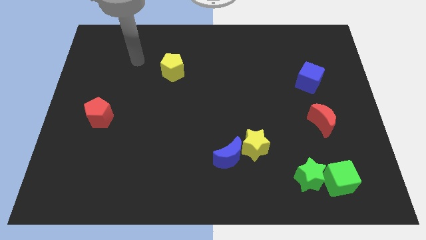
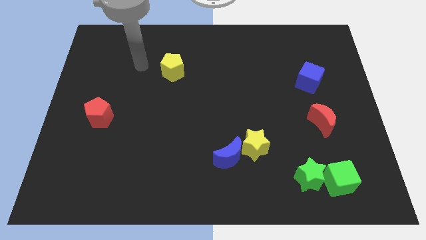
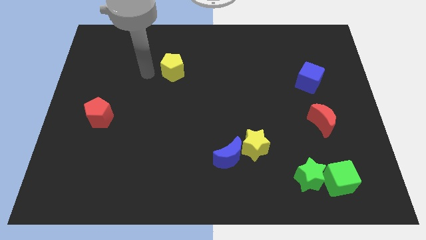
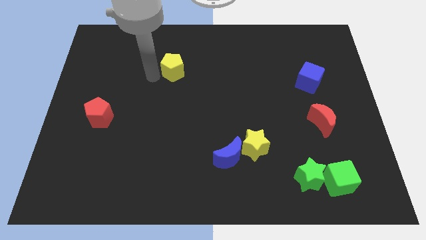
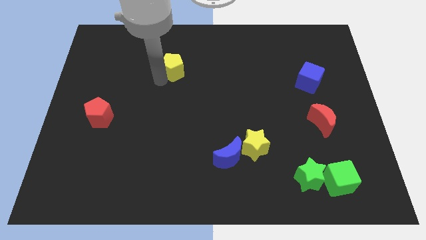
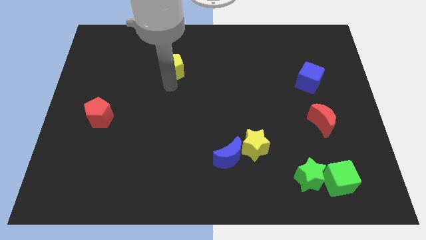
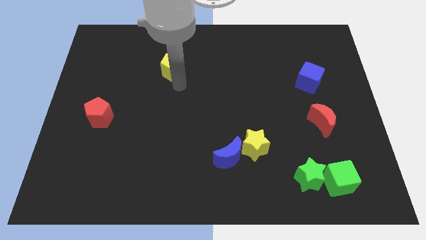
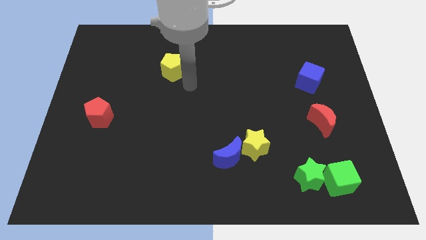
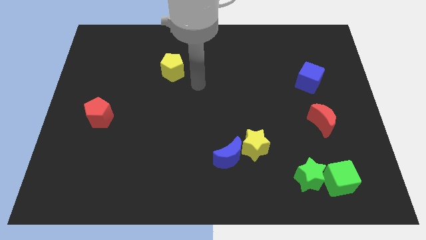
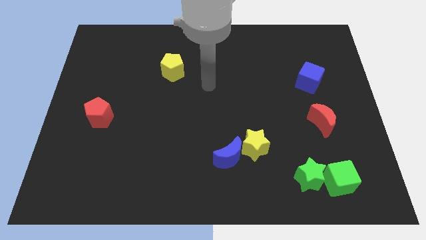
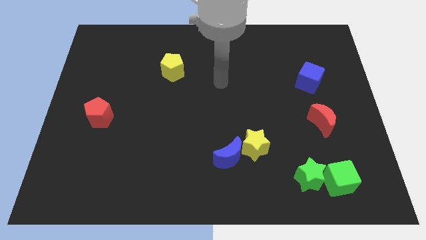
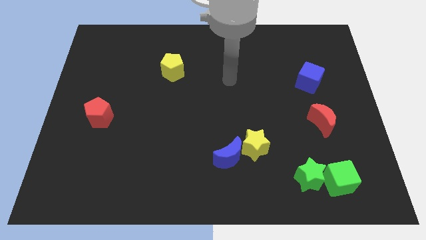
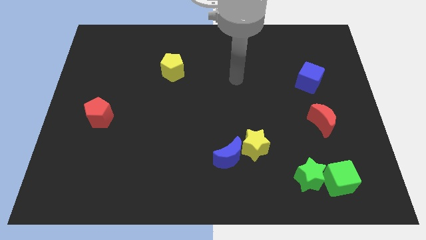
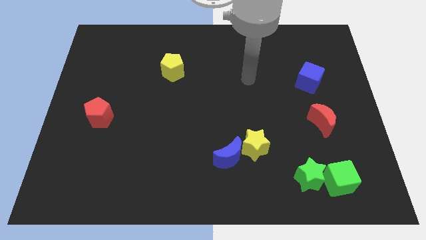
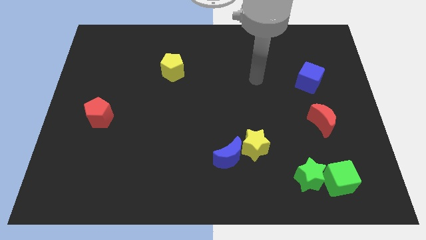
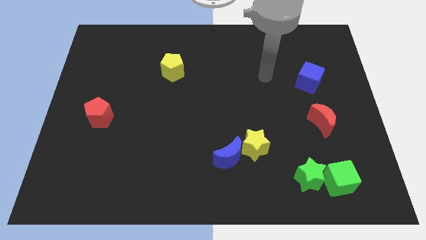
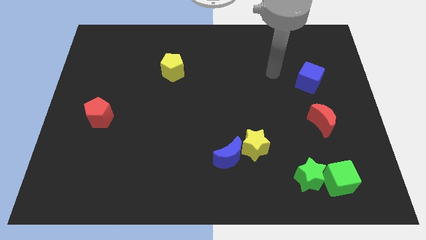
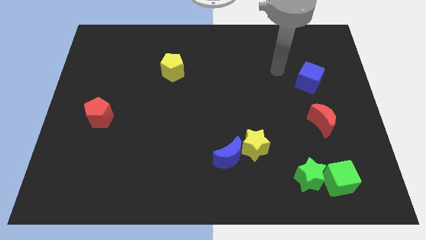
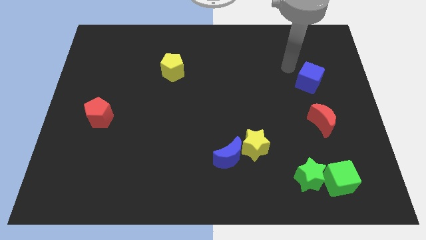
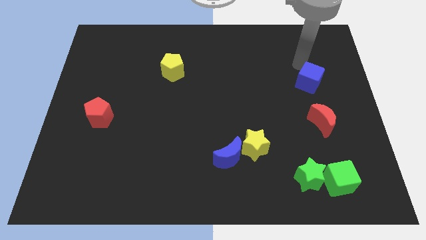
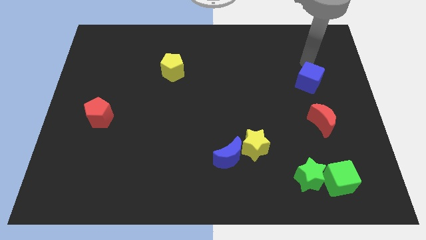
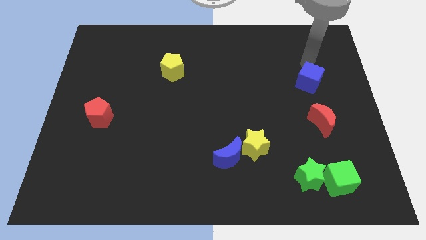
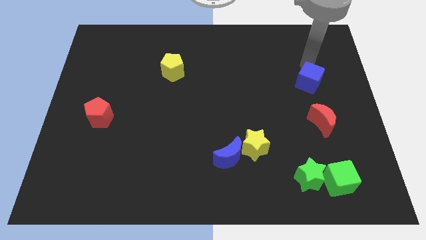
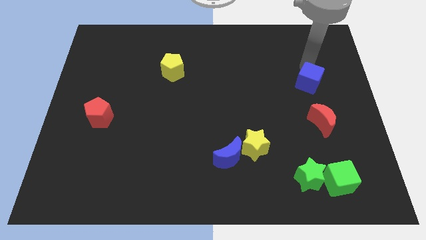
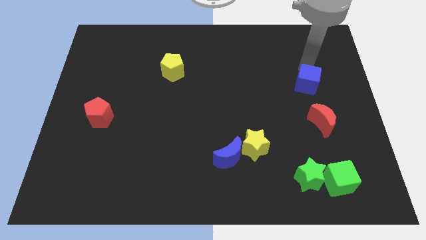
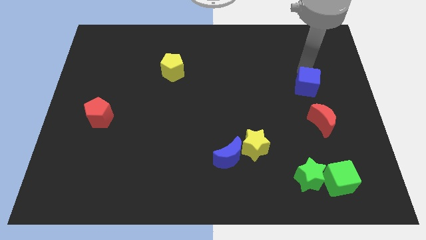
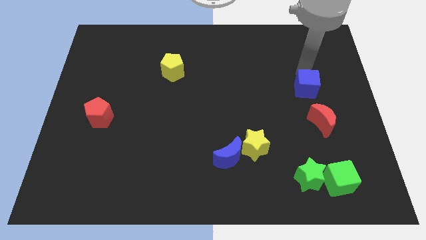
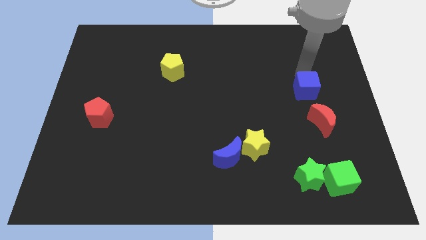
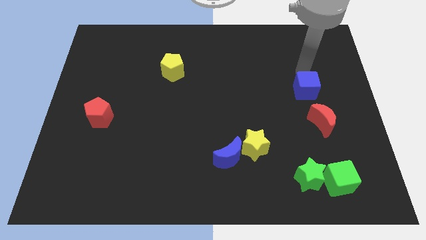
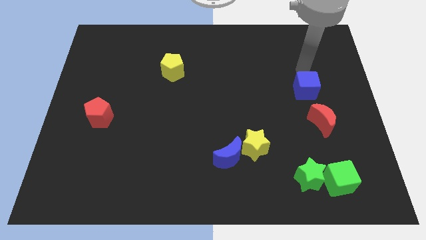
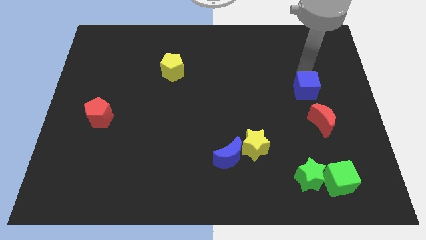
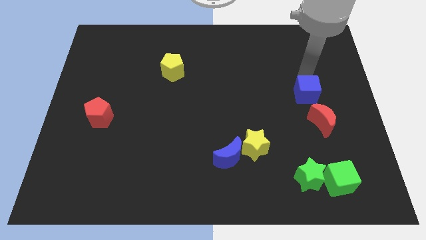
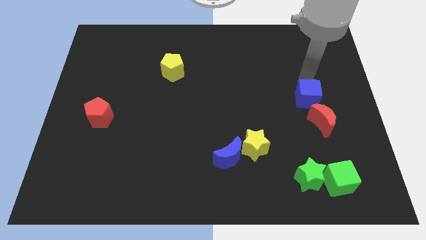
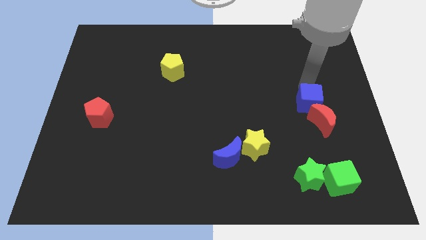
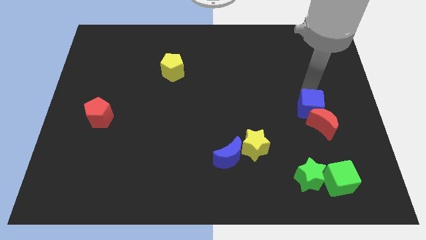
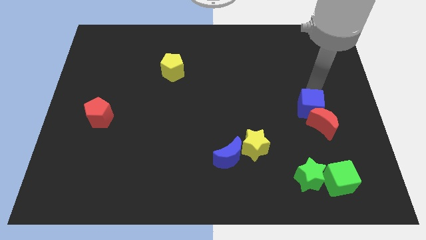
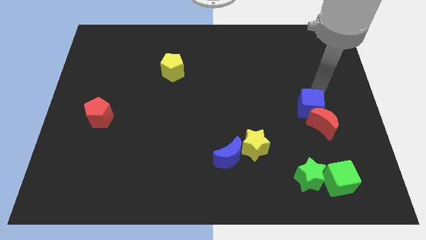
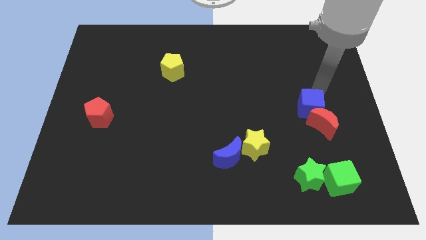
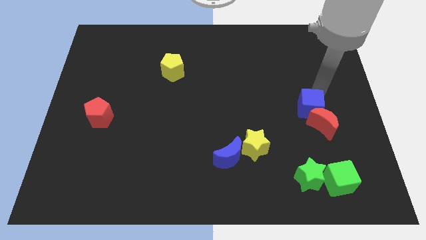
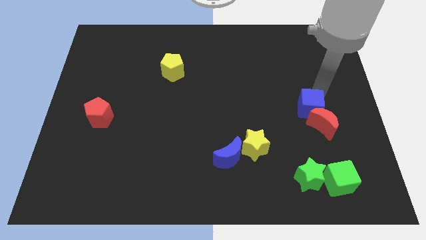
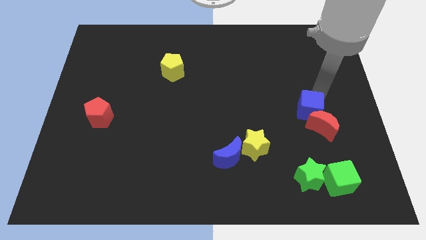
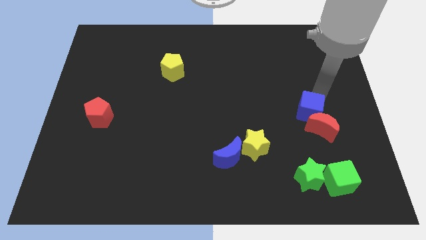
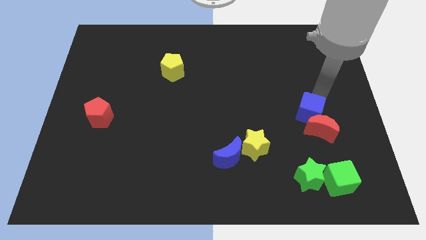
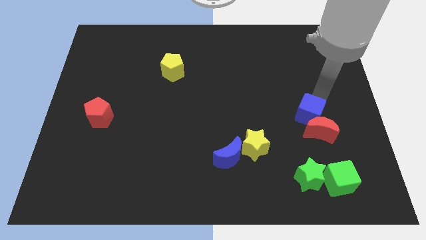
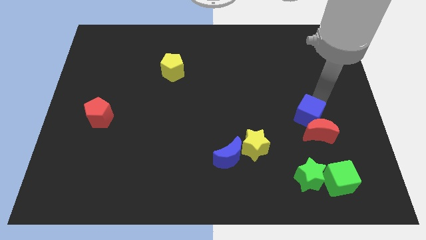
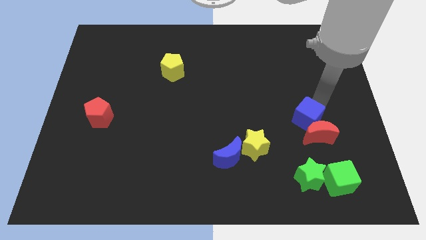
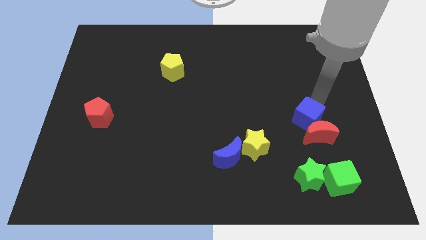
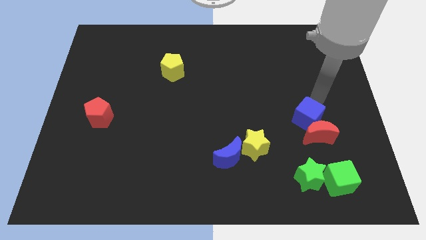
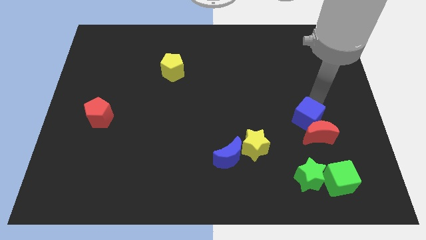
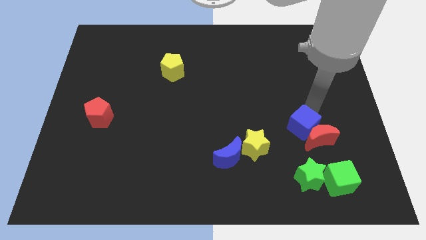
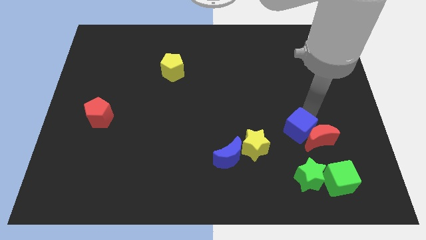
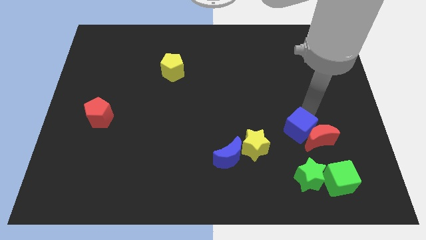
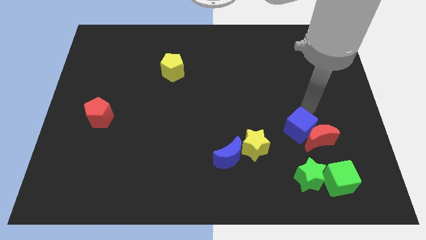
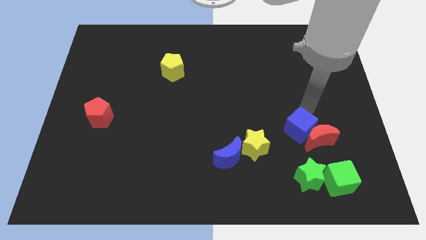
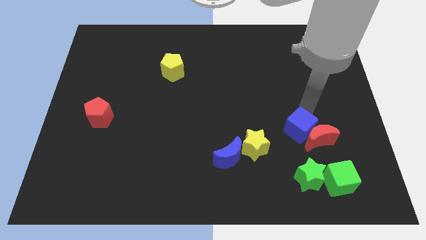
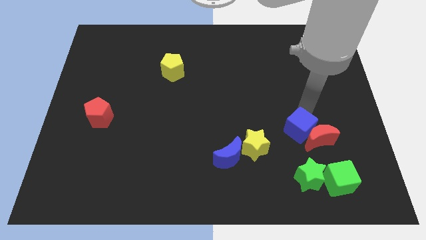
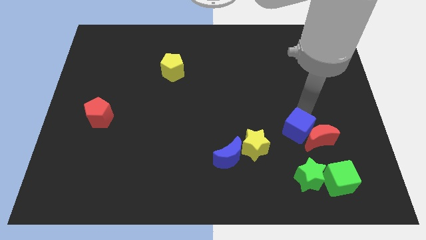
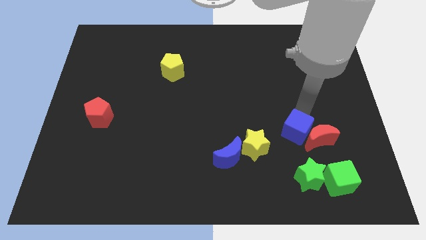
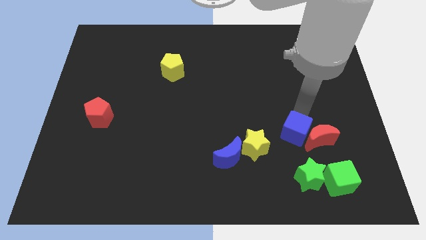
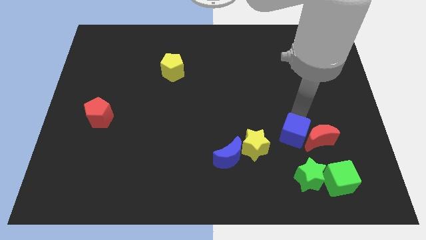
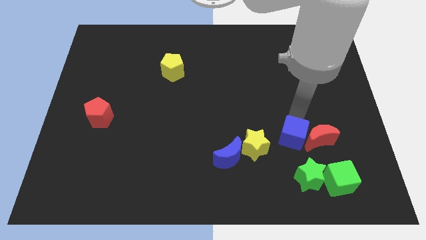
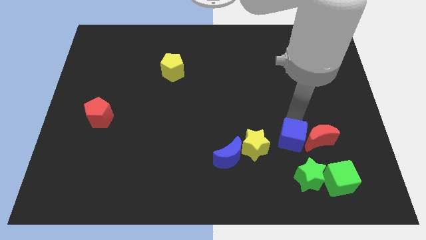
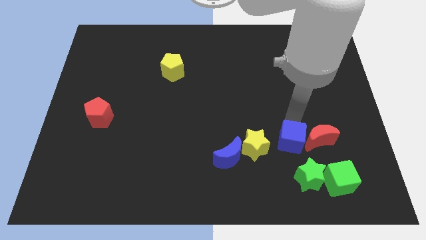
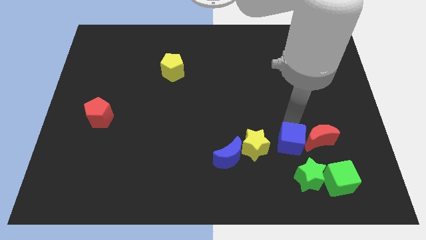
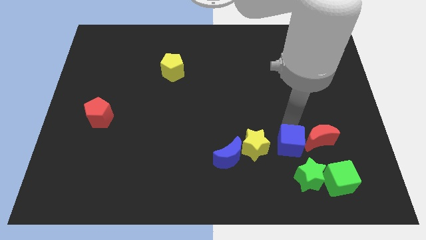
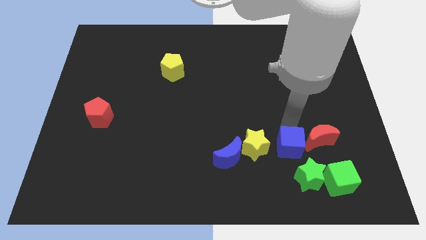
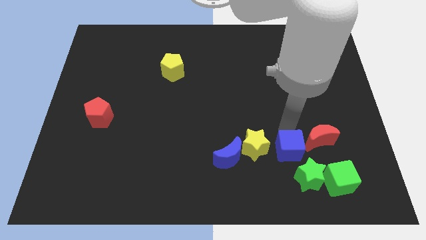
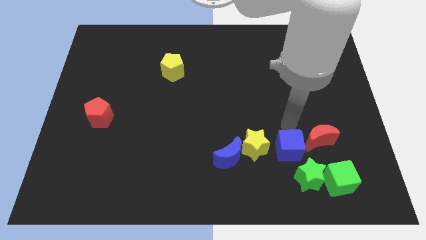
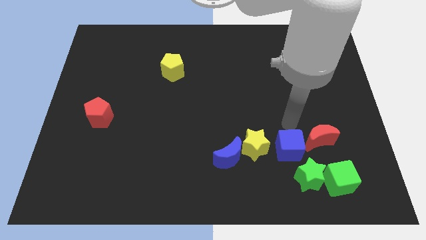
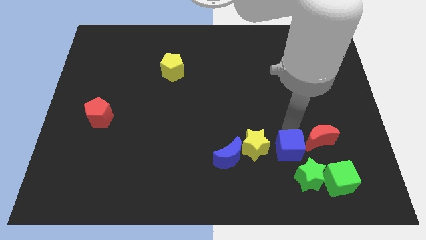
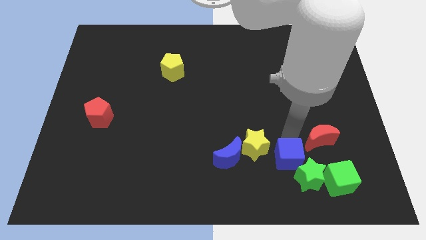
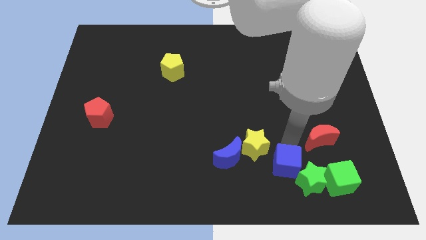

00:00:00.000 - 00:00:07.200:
push the blue cube left of the green cube
